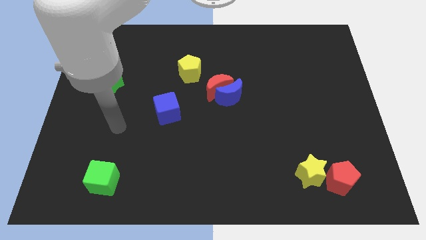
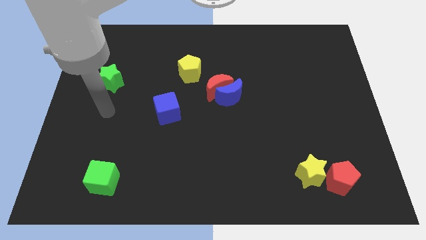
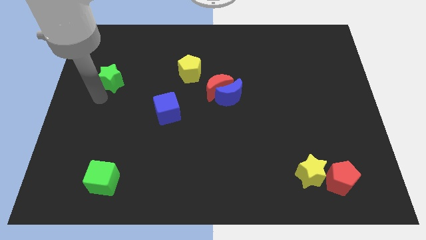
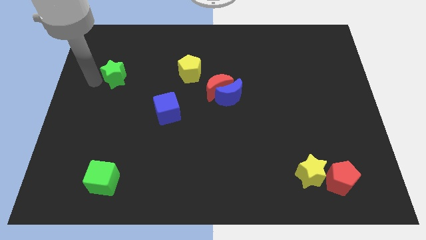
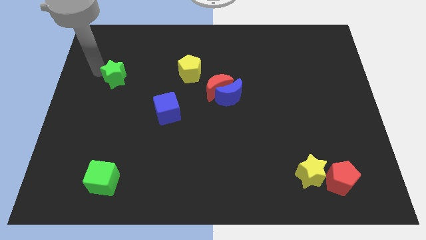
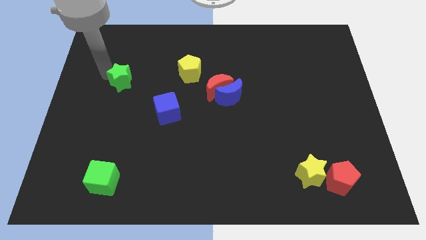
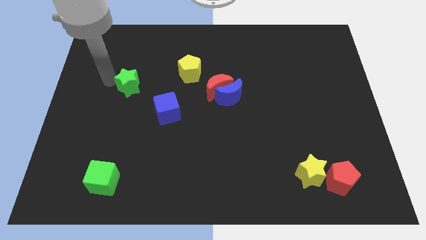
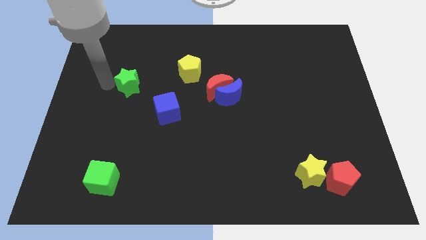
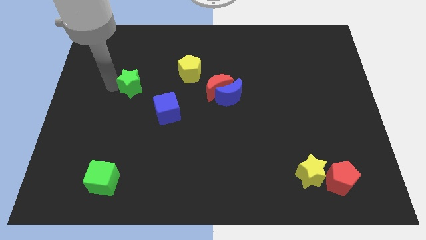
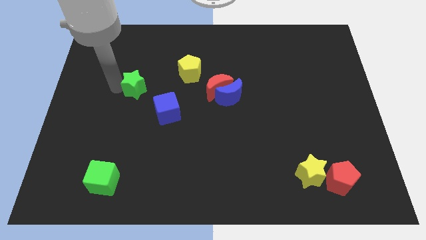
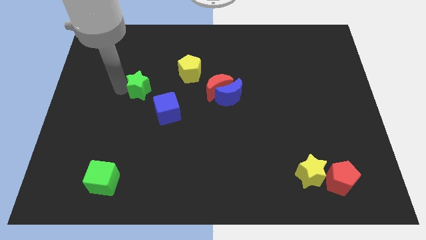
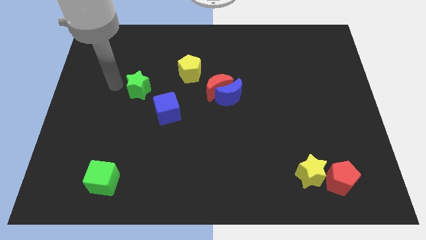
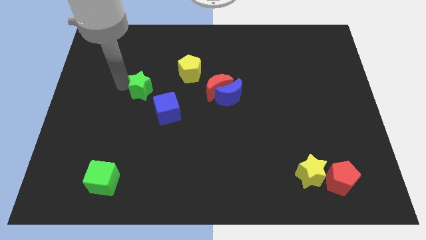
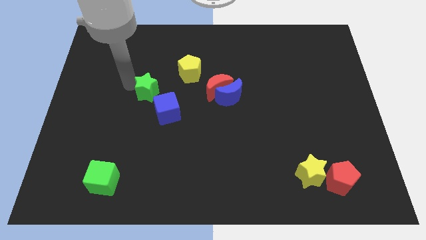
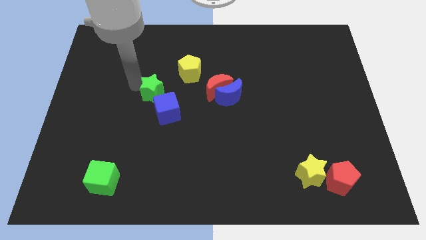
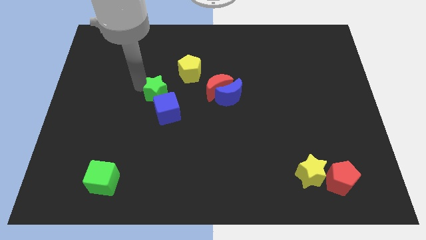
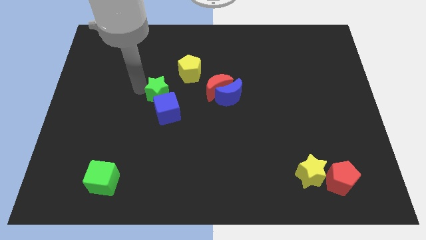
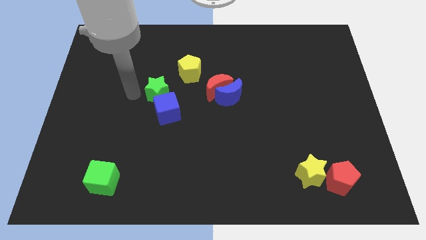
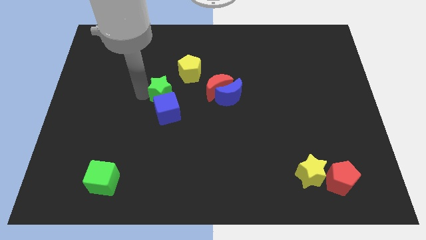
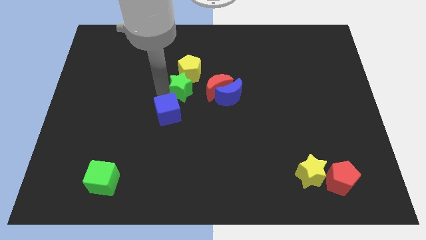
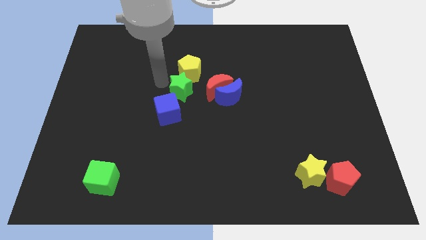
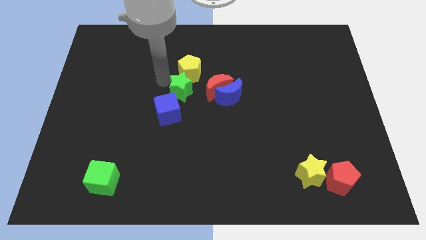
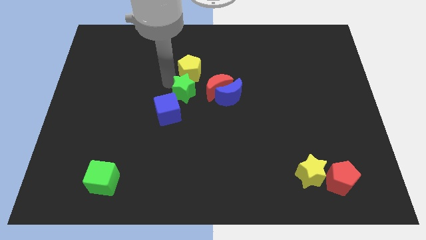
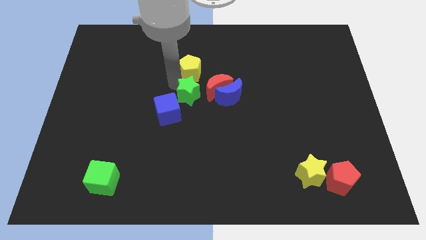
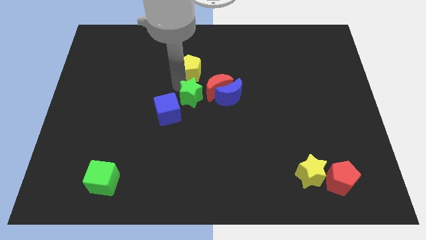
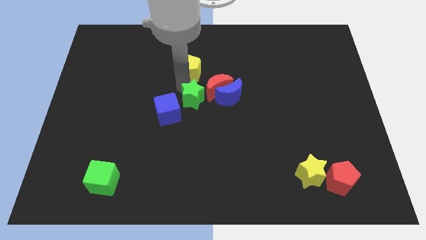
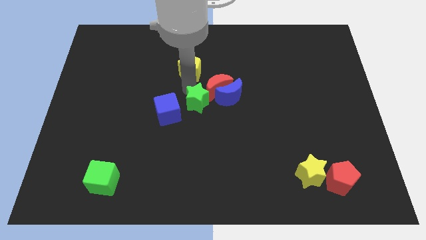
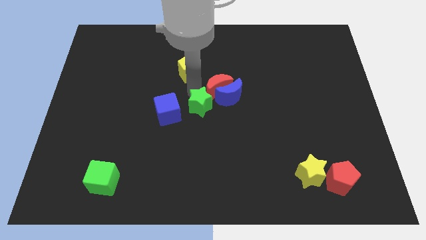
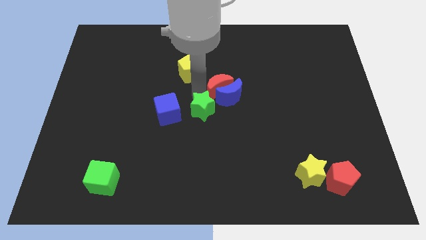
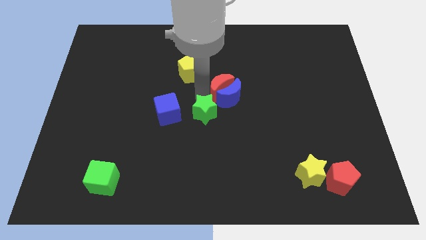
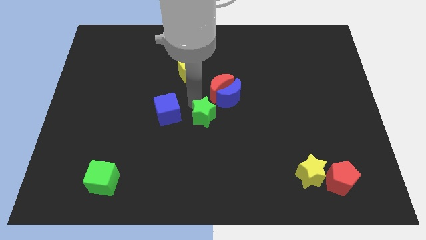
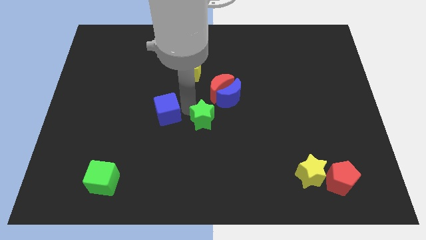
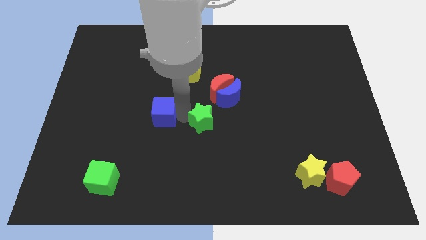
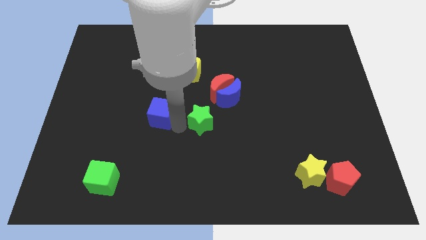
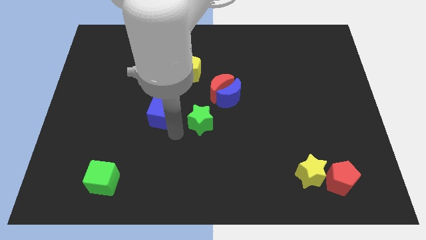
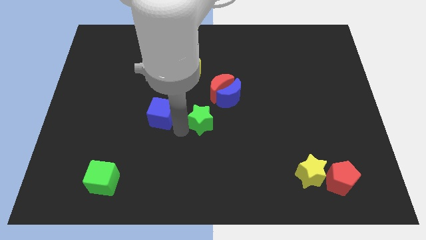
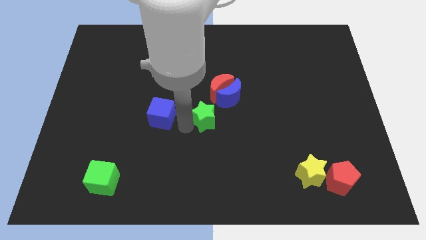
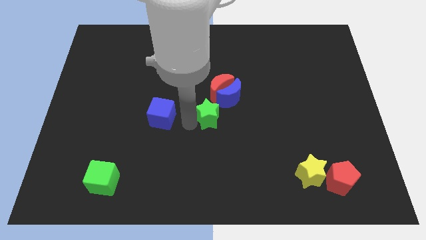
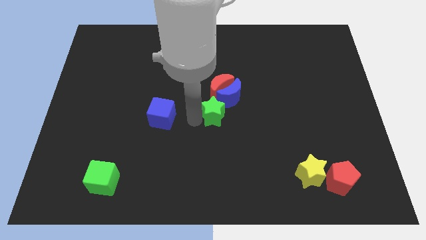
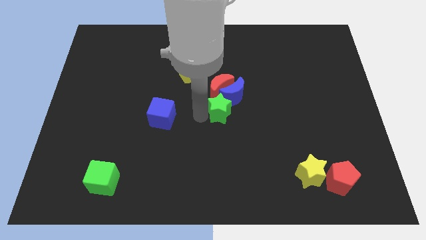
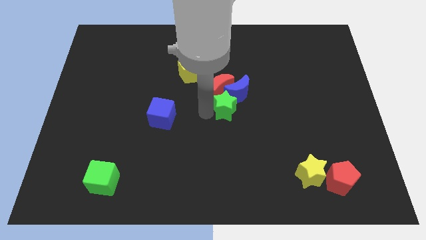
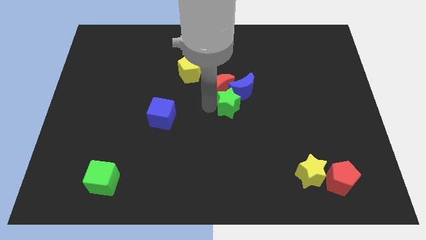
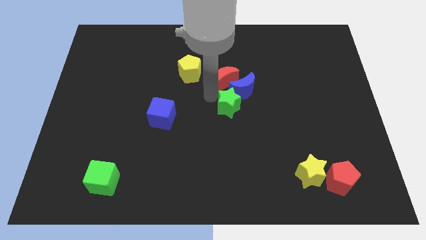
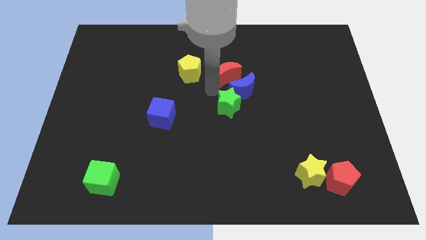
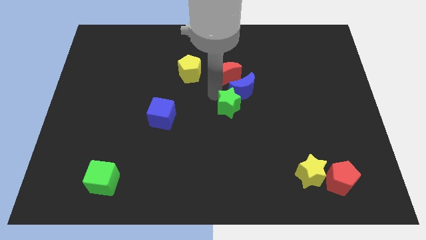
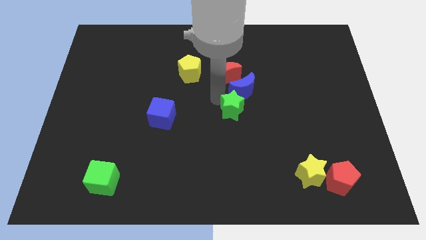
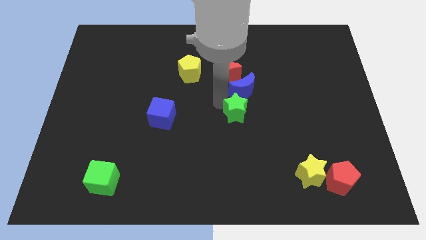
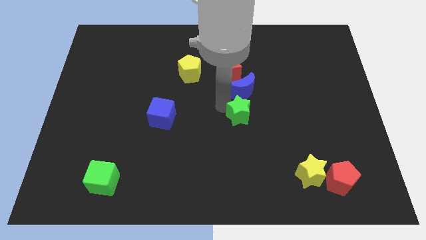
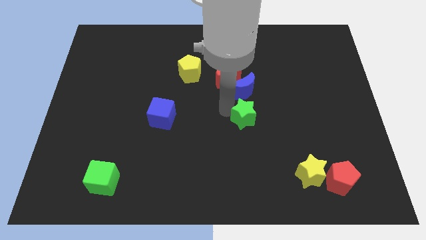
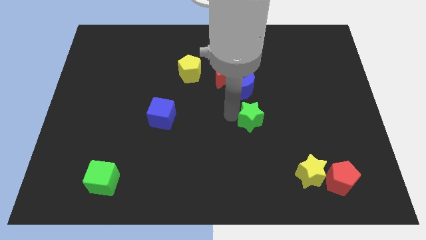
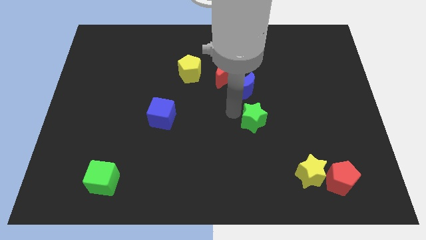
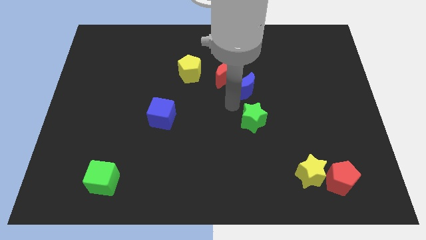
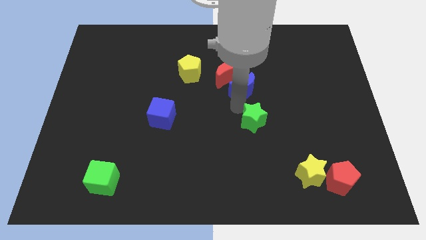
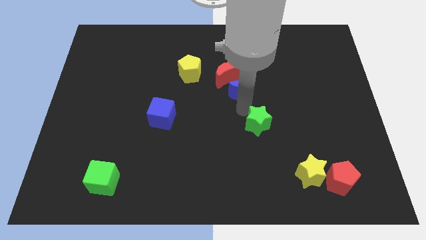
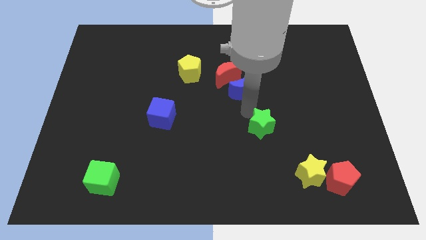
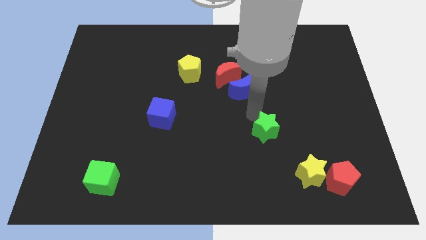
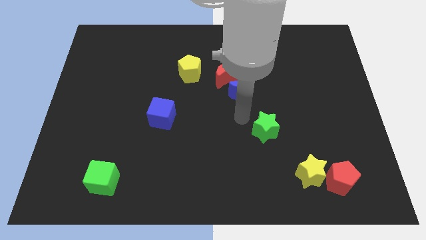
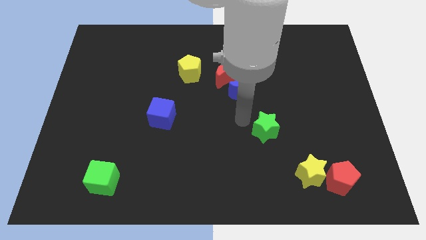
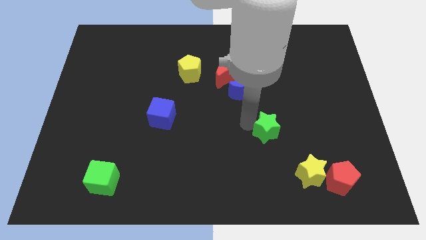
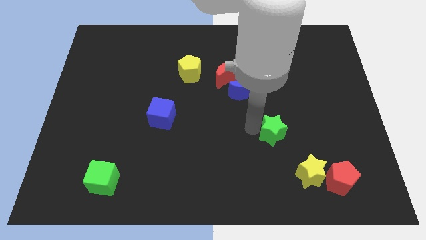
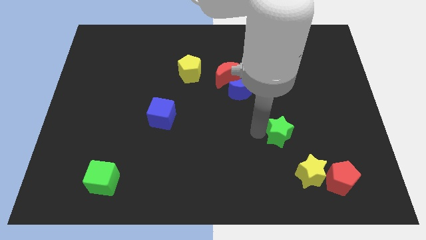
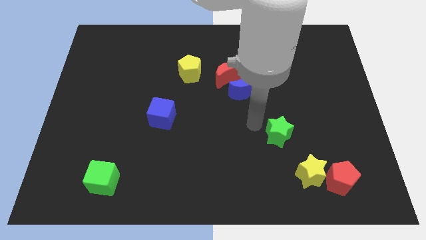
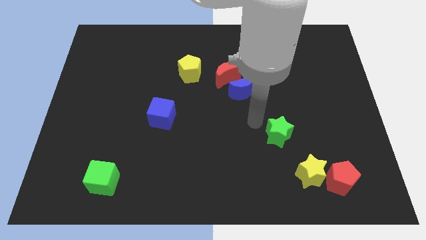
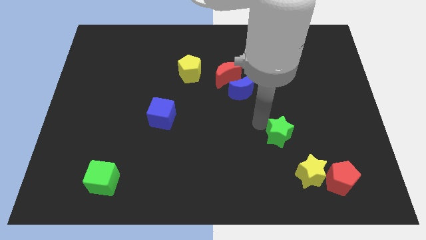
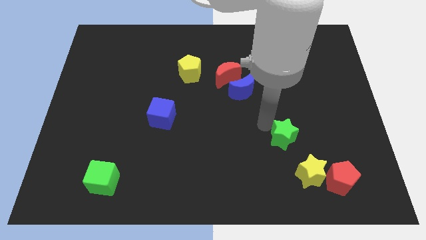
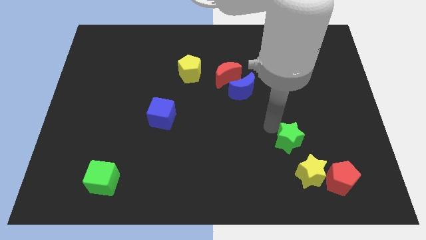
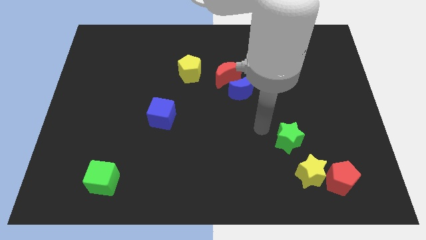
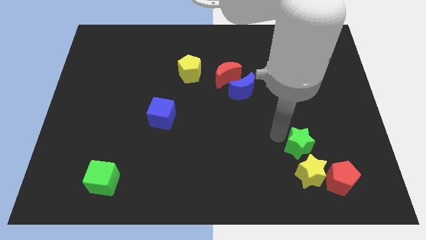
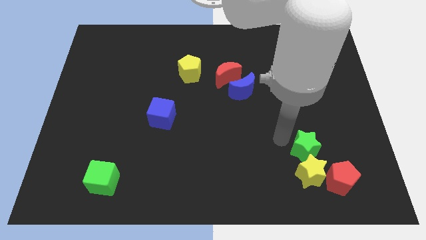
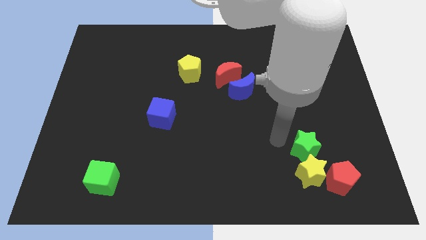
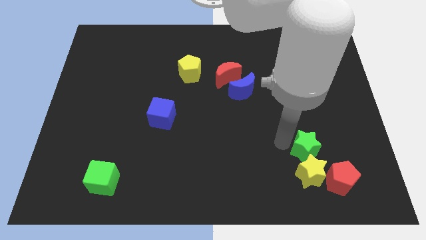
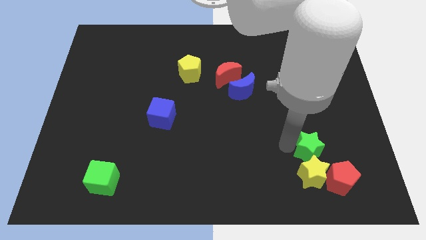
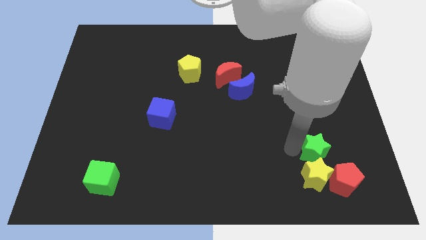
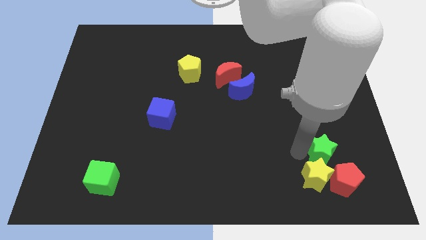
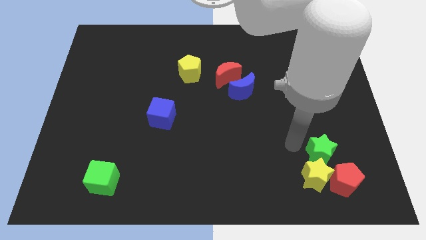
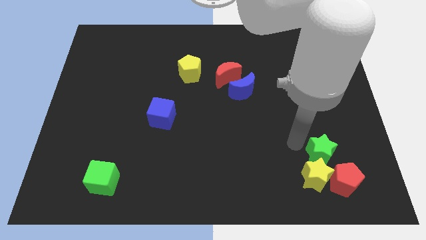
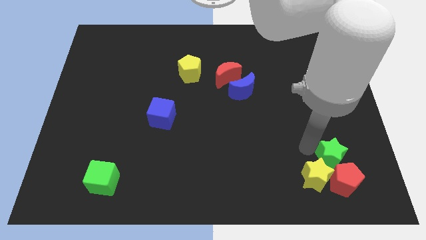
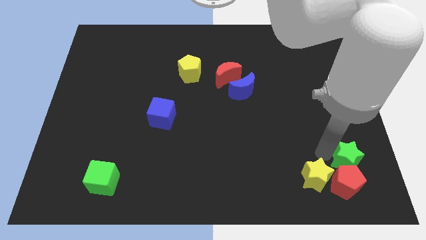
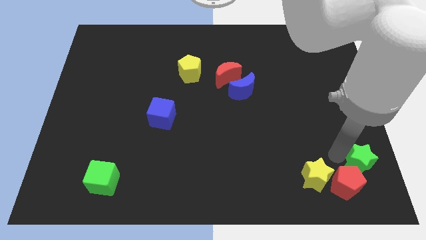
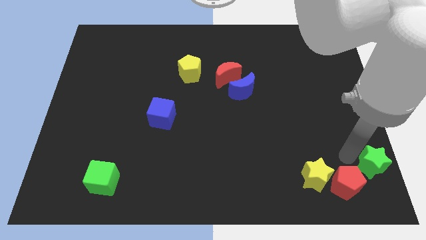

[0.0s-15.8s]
move the green star to the bottom right of the board
